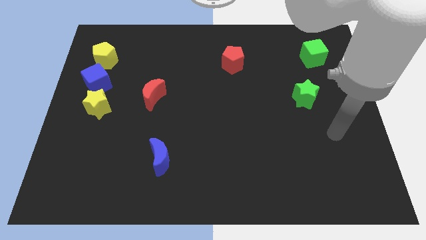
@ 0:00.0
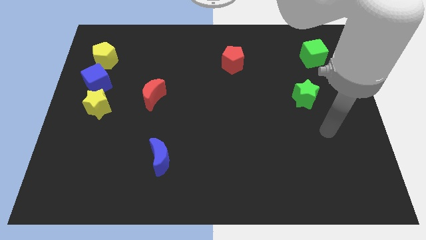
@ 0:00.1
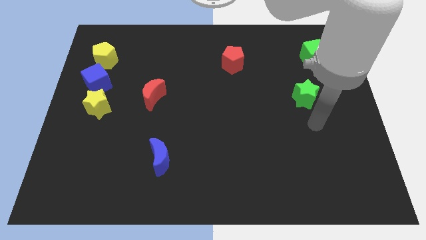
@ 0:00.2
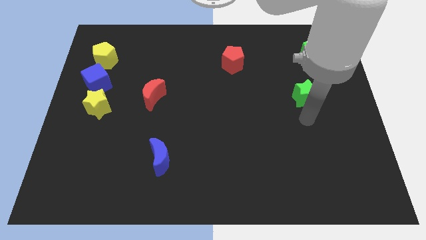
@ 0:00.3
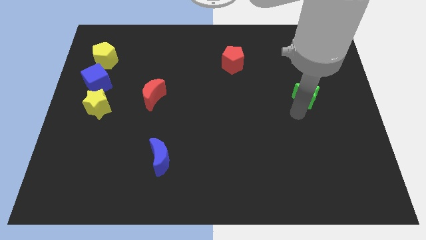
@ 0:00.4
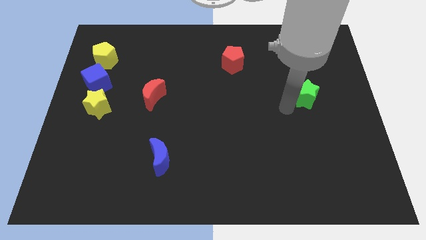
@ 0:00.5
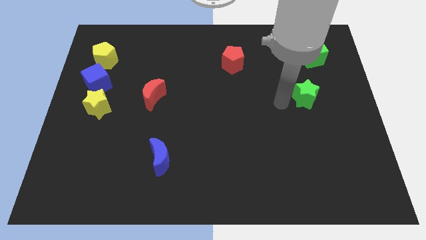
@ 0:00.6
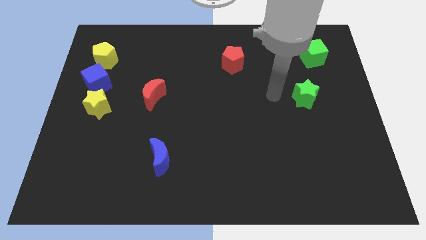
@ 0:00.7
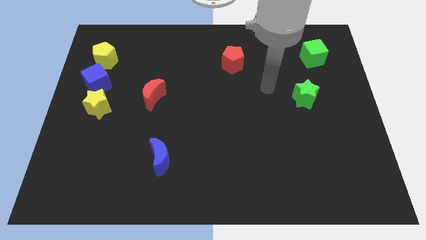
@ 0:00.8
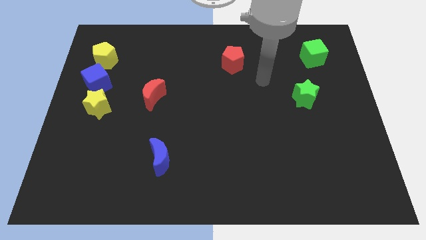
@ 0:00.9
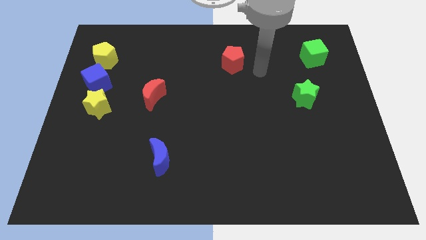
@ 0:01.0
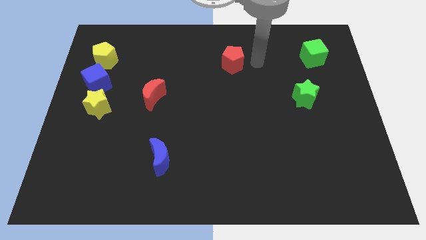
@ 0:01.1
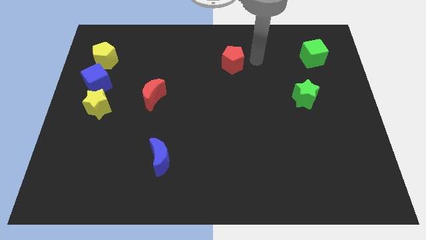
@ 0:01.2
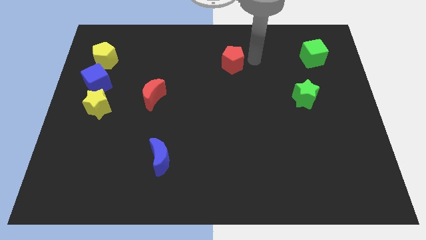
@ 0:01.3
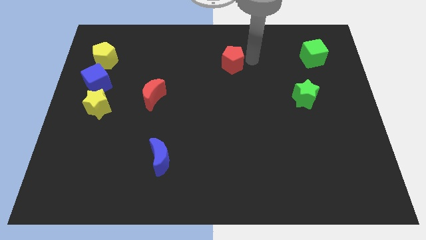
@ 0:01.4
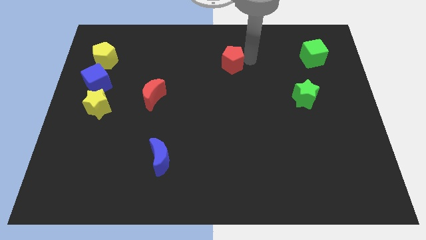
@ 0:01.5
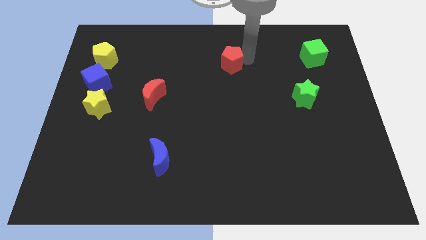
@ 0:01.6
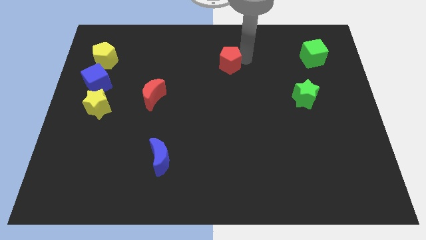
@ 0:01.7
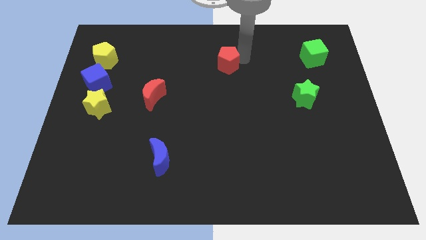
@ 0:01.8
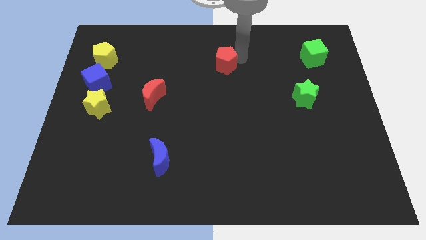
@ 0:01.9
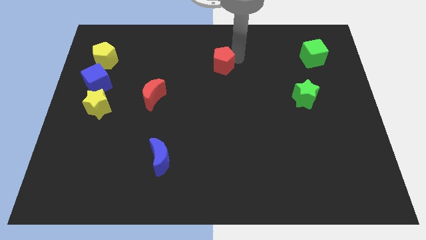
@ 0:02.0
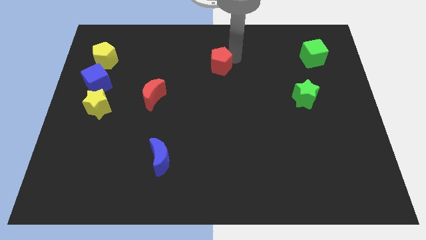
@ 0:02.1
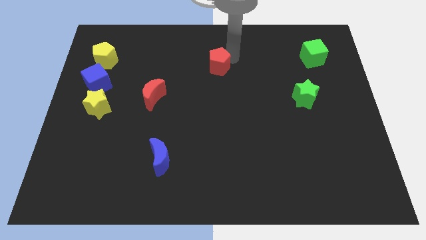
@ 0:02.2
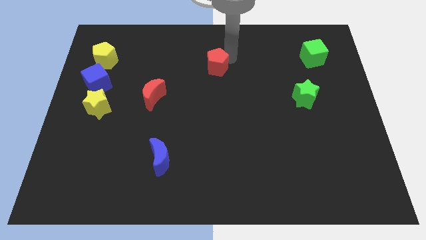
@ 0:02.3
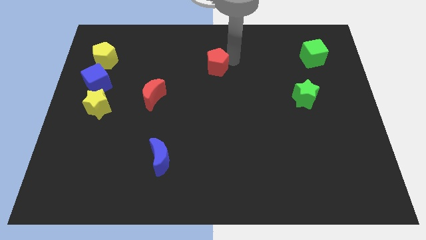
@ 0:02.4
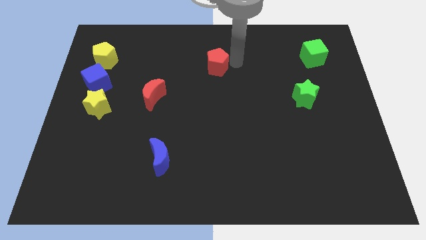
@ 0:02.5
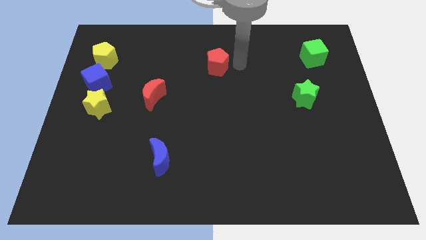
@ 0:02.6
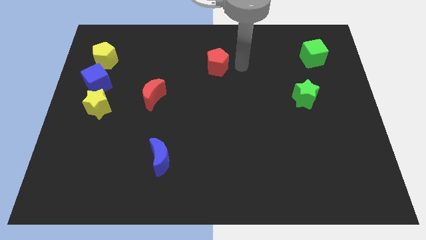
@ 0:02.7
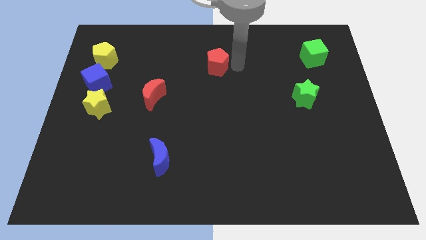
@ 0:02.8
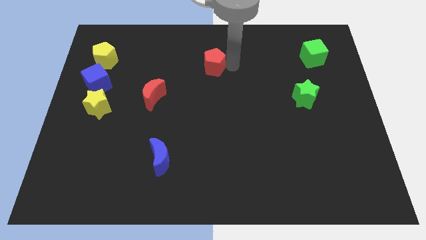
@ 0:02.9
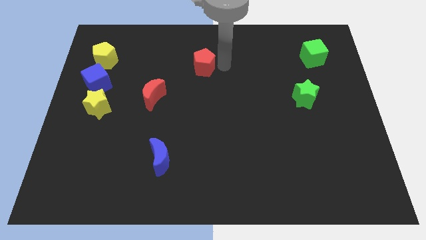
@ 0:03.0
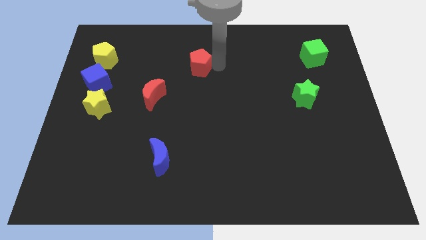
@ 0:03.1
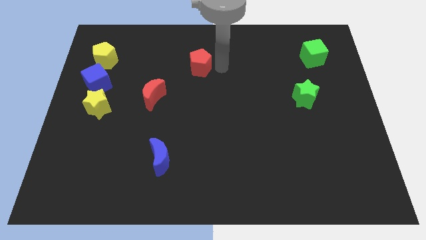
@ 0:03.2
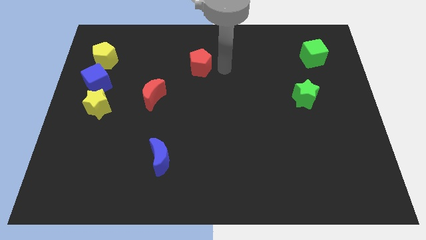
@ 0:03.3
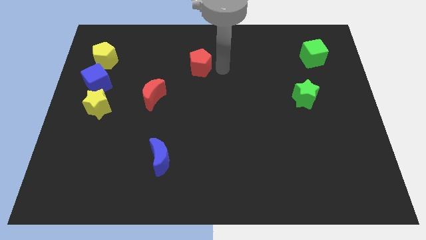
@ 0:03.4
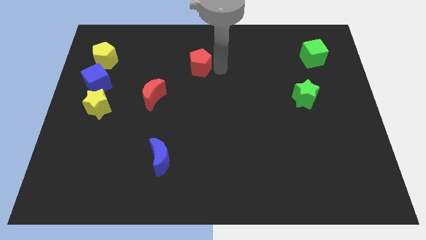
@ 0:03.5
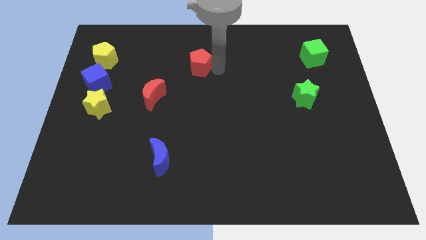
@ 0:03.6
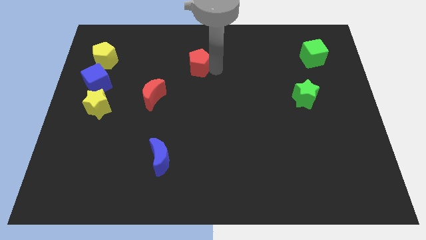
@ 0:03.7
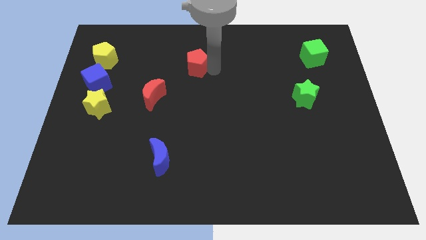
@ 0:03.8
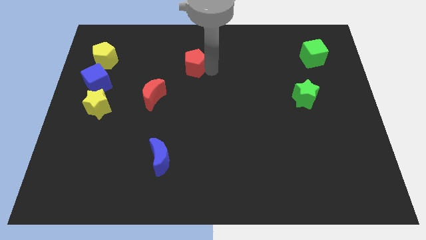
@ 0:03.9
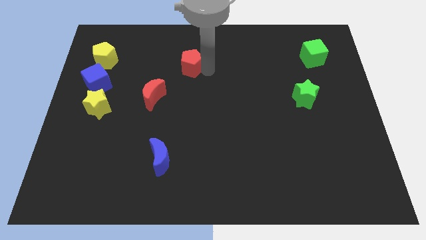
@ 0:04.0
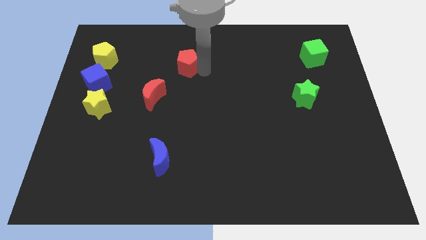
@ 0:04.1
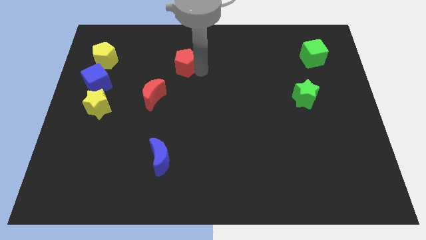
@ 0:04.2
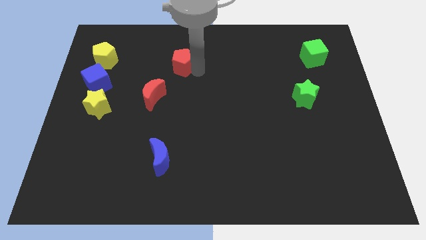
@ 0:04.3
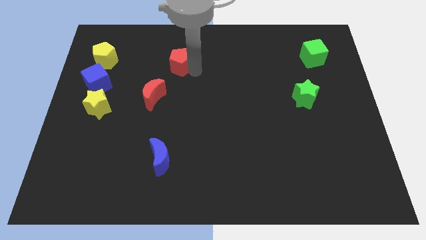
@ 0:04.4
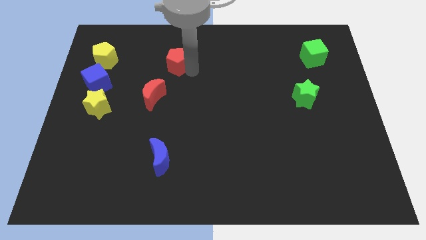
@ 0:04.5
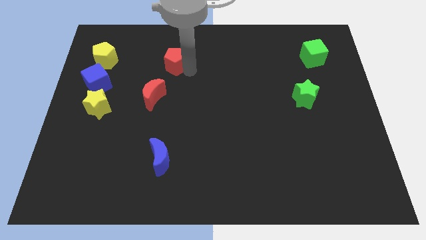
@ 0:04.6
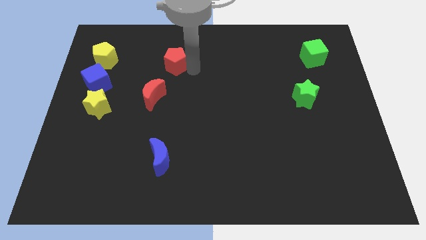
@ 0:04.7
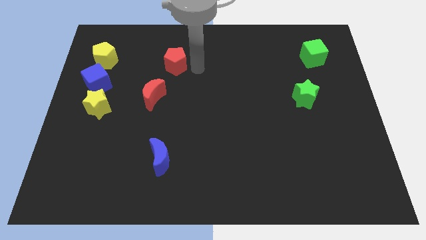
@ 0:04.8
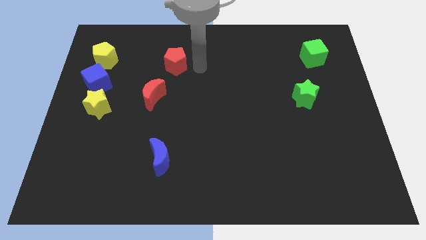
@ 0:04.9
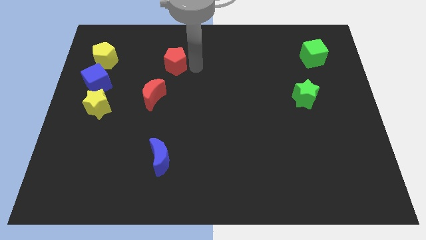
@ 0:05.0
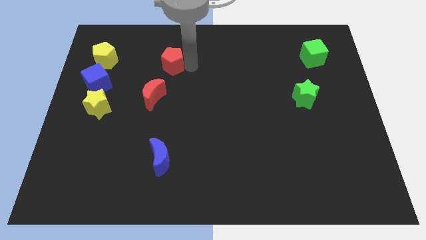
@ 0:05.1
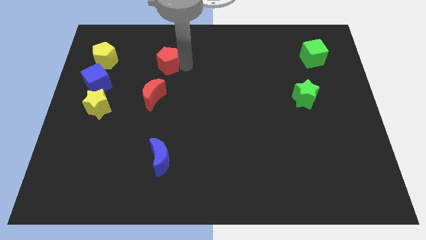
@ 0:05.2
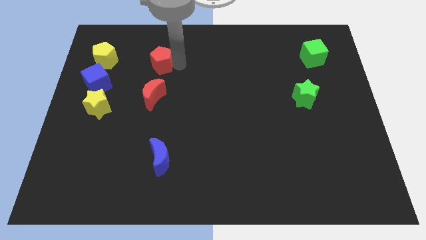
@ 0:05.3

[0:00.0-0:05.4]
slide the red pentagon to the right side of the yellow pentagon

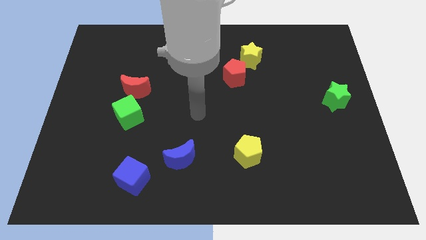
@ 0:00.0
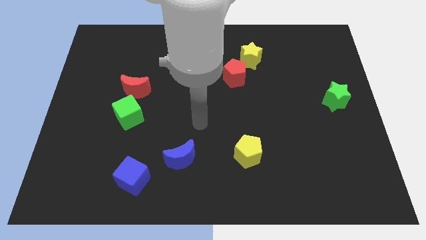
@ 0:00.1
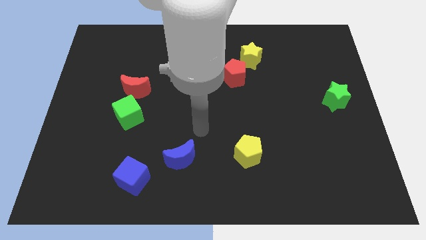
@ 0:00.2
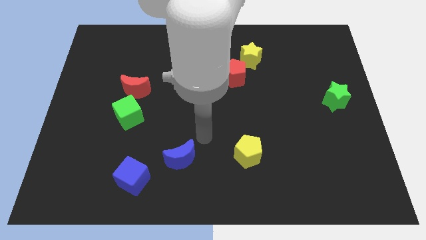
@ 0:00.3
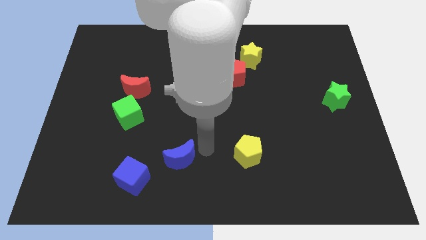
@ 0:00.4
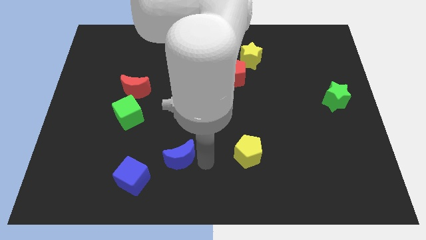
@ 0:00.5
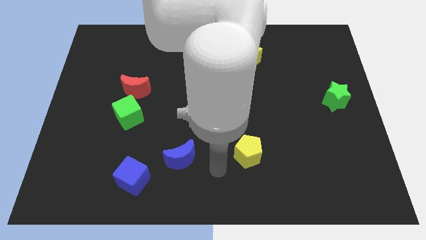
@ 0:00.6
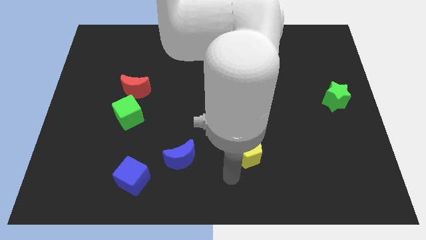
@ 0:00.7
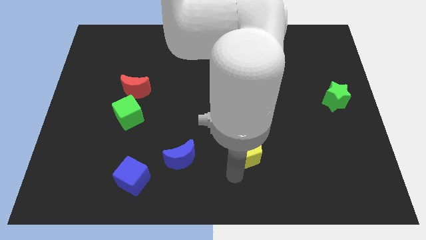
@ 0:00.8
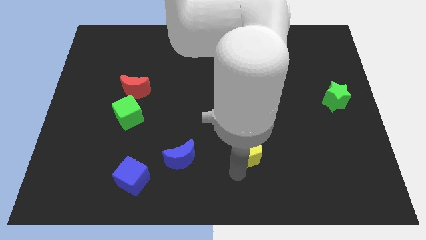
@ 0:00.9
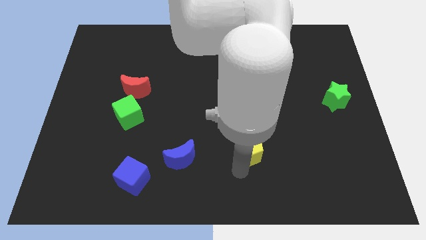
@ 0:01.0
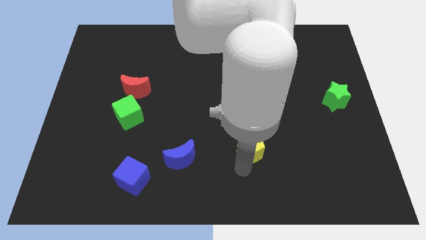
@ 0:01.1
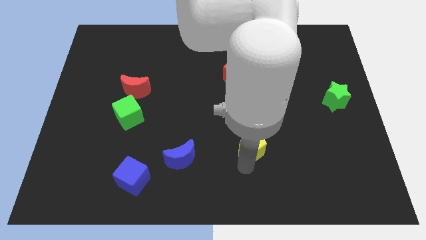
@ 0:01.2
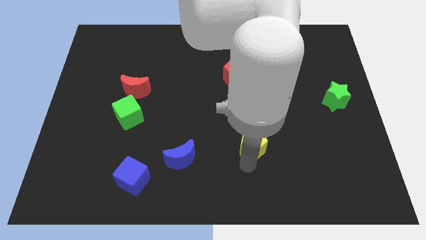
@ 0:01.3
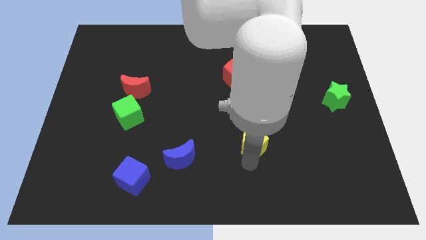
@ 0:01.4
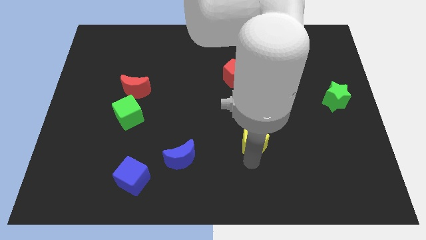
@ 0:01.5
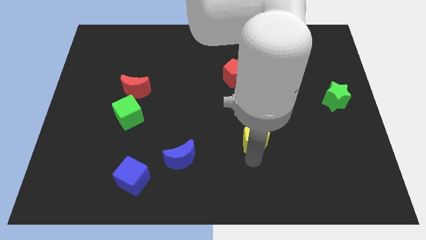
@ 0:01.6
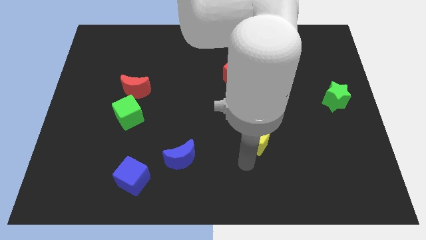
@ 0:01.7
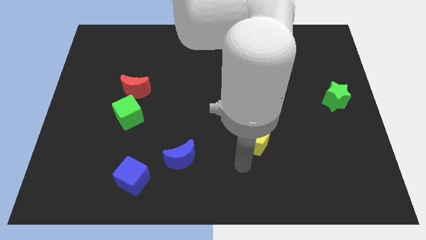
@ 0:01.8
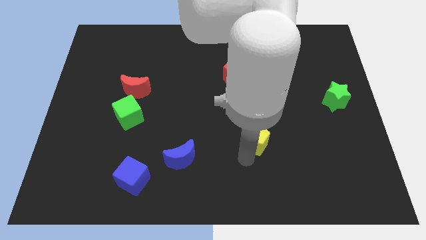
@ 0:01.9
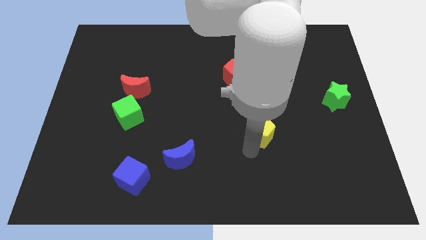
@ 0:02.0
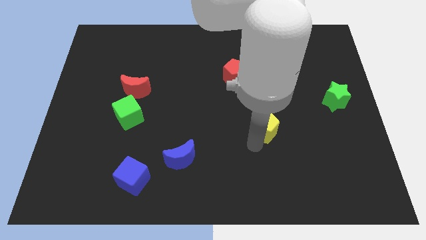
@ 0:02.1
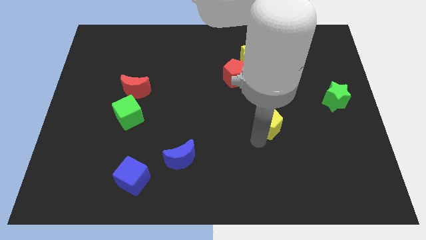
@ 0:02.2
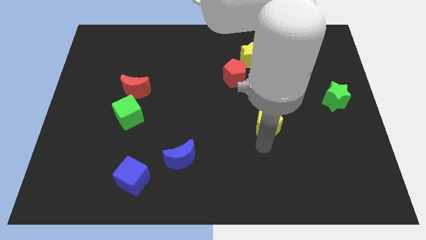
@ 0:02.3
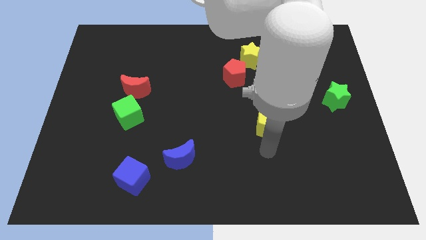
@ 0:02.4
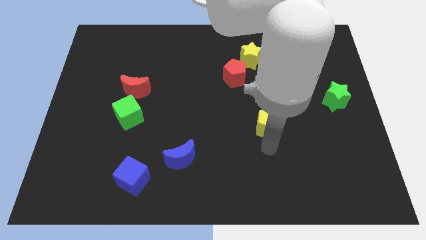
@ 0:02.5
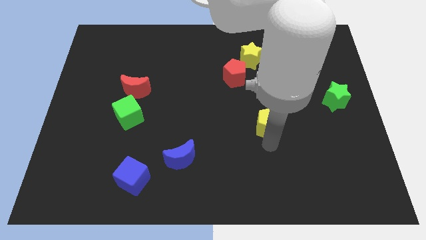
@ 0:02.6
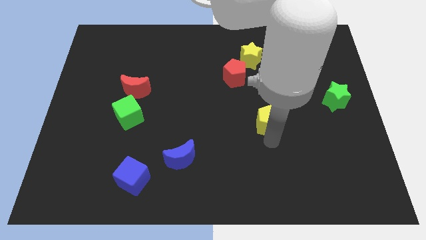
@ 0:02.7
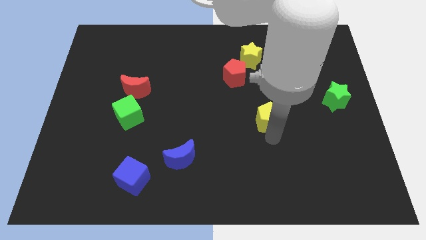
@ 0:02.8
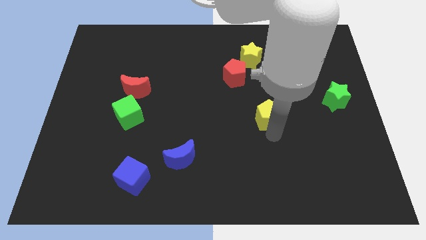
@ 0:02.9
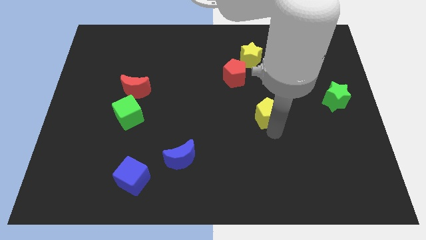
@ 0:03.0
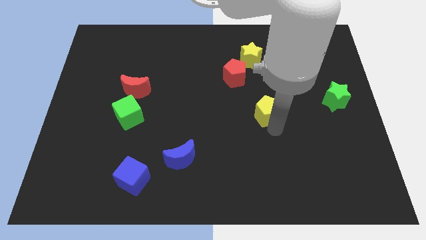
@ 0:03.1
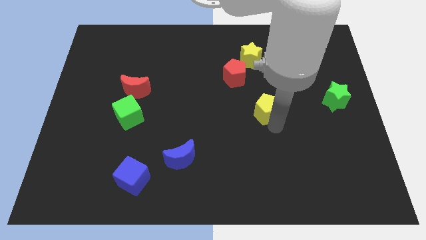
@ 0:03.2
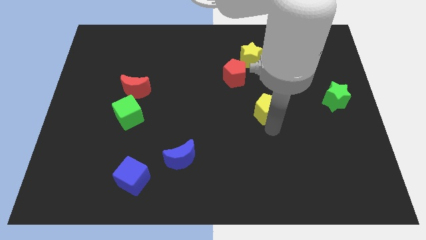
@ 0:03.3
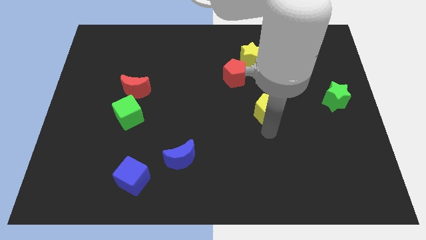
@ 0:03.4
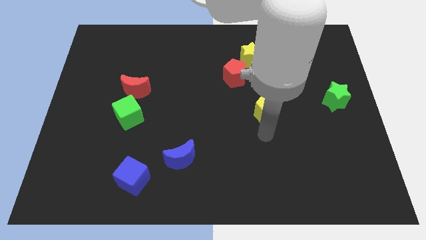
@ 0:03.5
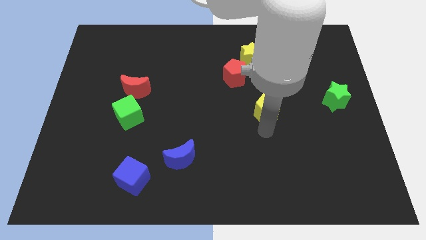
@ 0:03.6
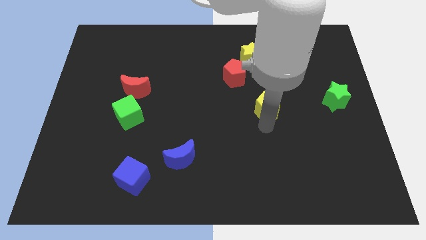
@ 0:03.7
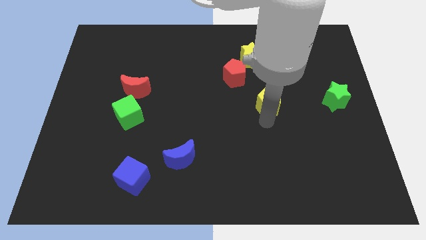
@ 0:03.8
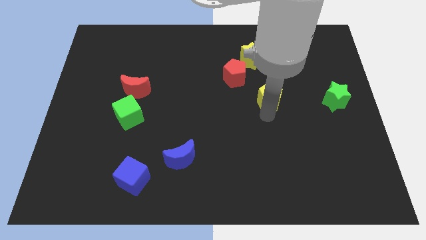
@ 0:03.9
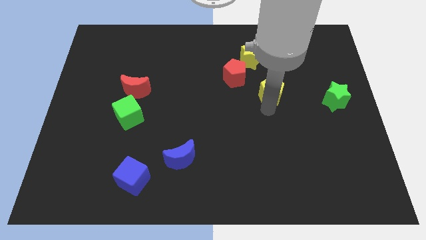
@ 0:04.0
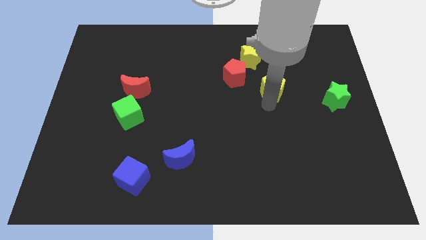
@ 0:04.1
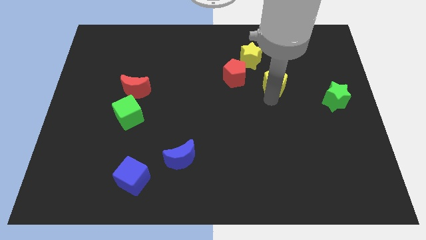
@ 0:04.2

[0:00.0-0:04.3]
push the yellow pentagon diagonally down and to the right of the yellow star
